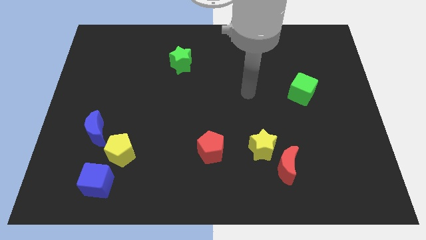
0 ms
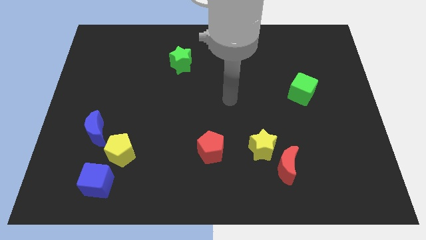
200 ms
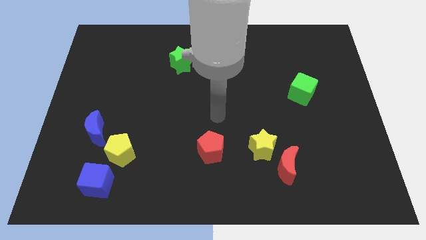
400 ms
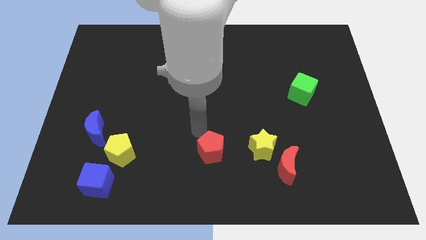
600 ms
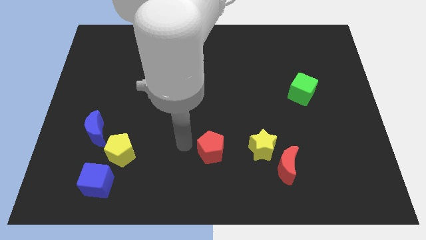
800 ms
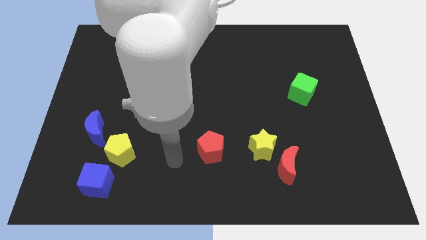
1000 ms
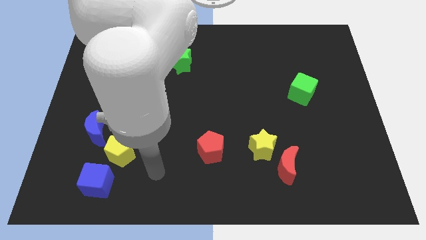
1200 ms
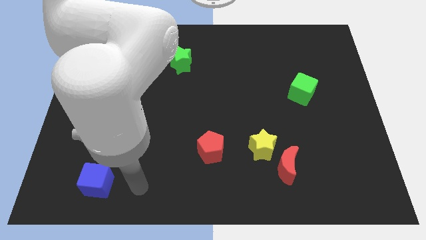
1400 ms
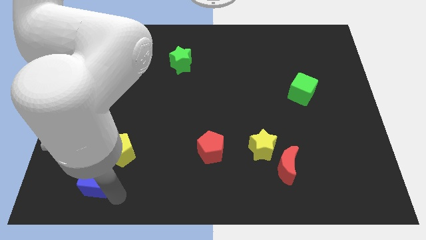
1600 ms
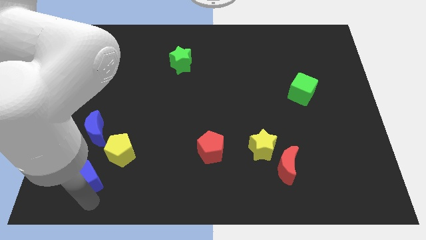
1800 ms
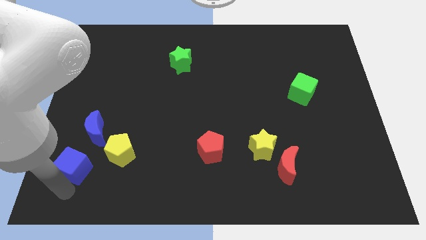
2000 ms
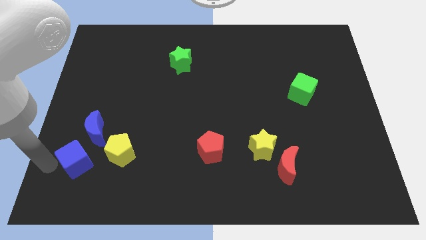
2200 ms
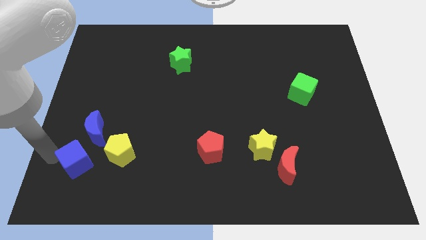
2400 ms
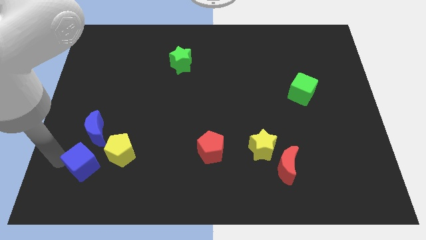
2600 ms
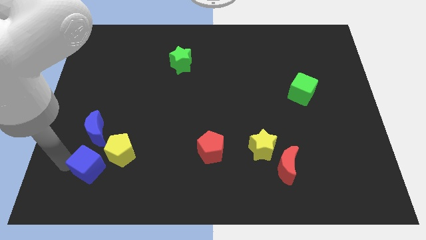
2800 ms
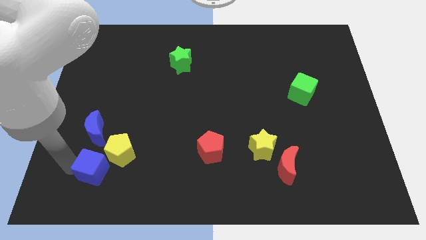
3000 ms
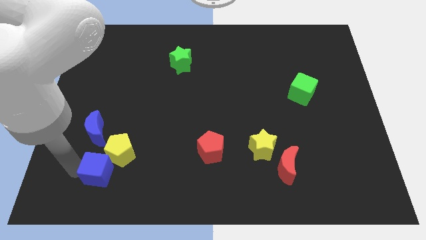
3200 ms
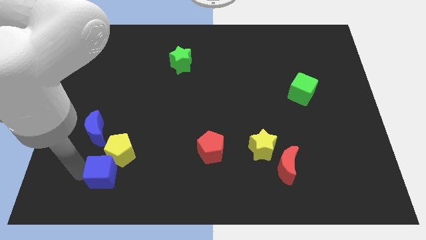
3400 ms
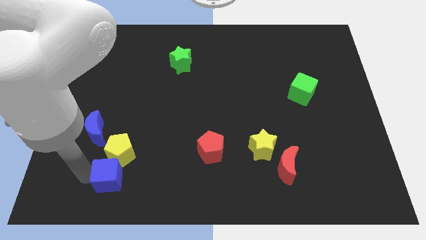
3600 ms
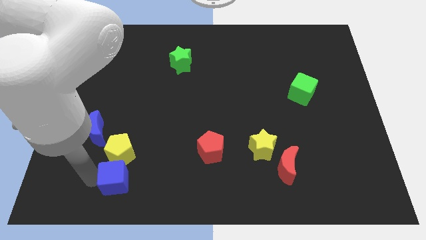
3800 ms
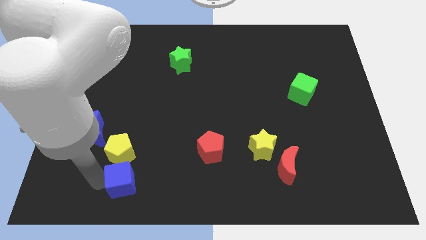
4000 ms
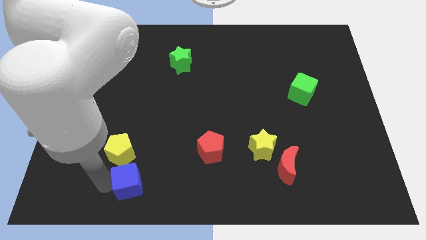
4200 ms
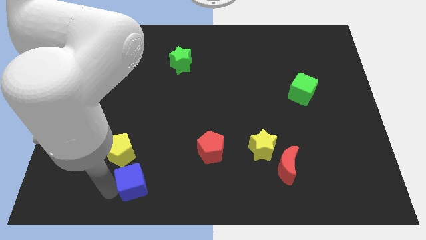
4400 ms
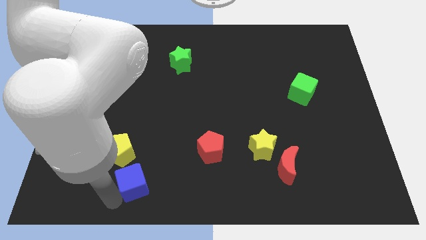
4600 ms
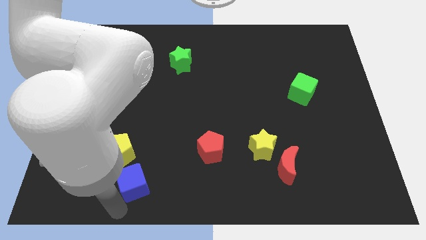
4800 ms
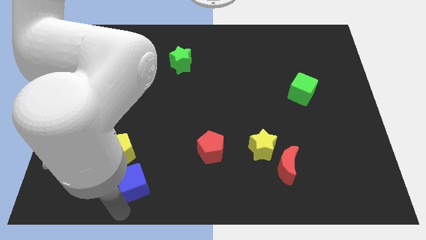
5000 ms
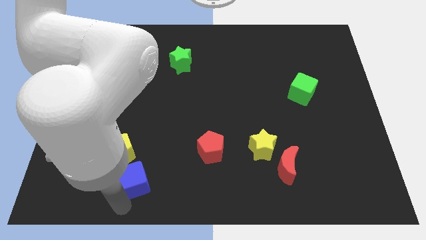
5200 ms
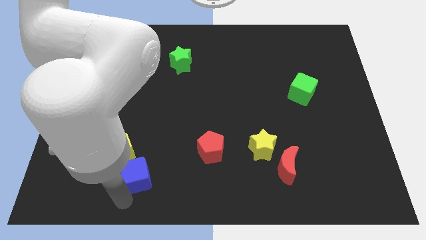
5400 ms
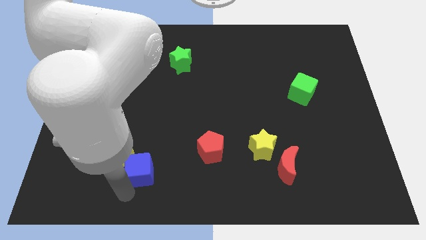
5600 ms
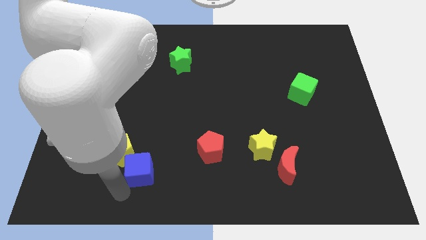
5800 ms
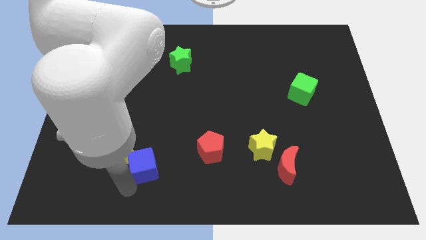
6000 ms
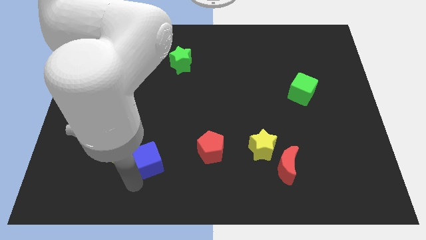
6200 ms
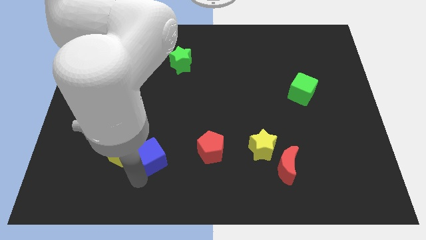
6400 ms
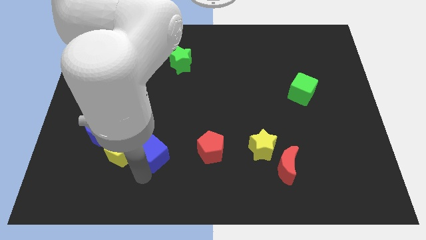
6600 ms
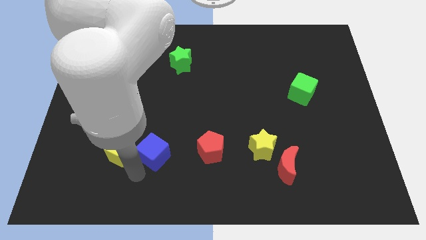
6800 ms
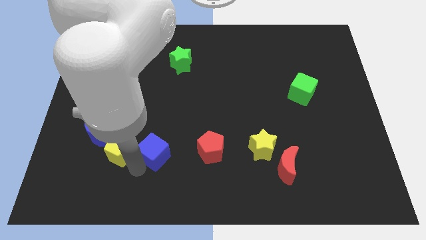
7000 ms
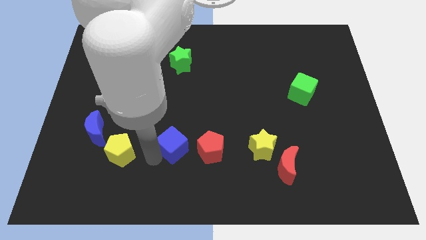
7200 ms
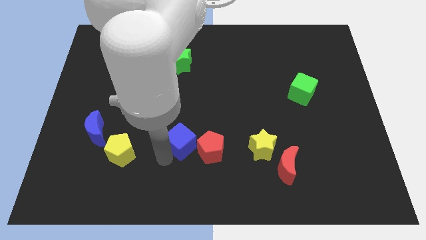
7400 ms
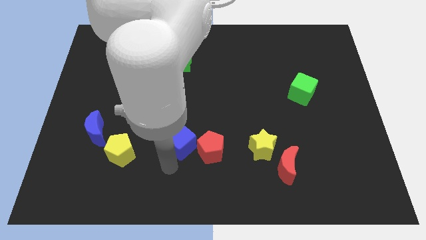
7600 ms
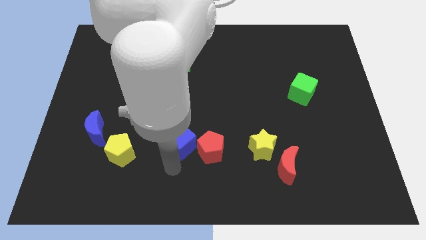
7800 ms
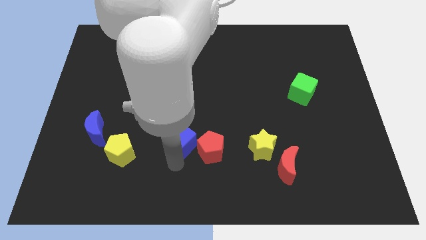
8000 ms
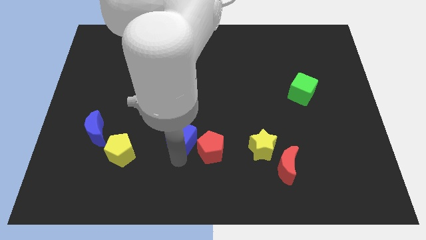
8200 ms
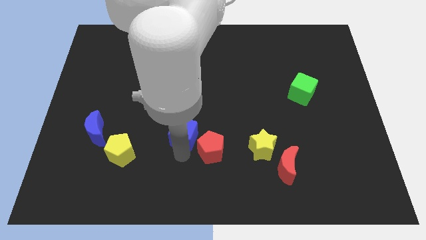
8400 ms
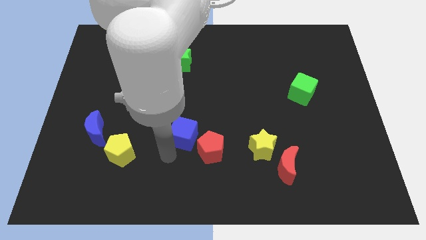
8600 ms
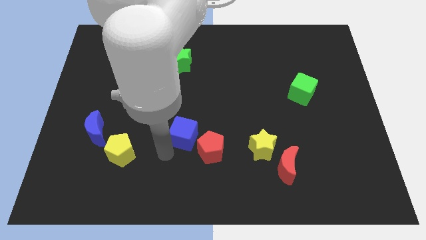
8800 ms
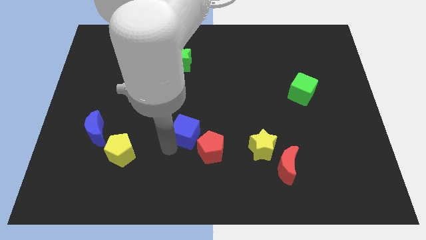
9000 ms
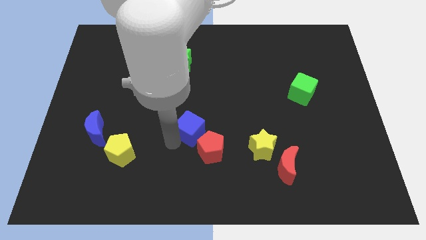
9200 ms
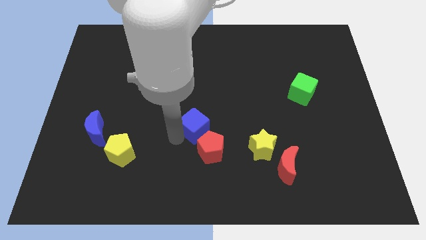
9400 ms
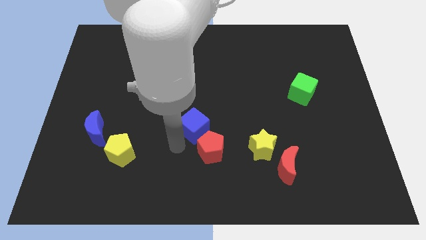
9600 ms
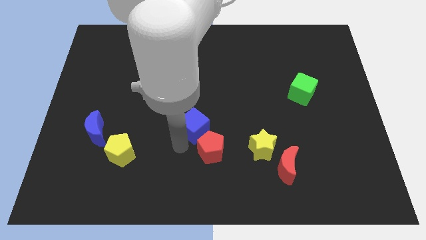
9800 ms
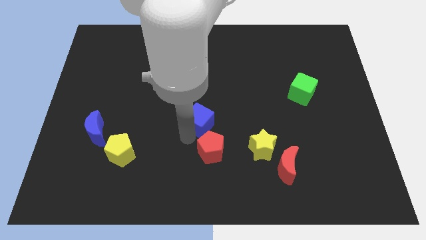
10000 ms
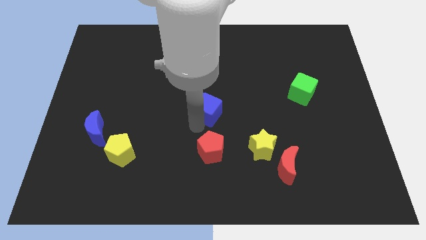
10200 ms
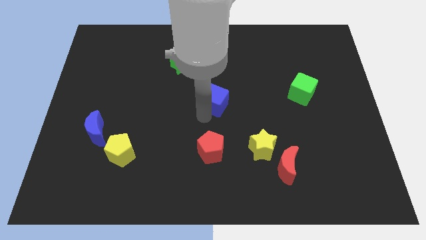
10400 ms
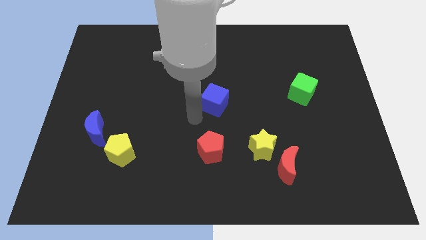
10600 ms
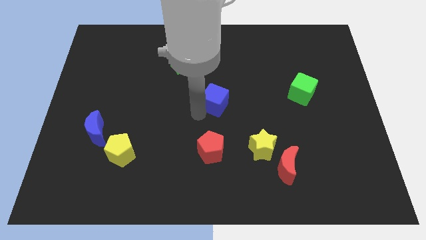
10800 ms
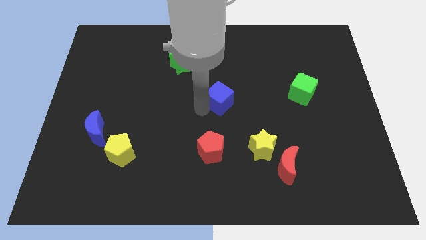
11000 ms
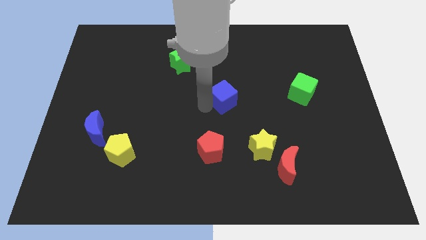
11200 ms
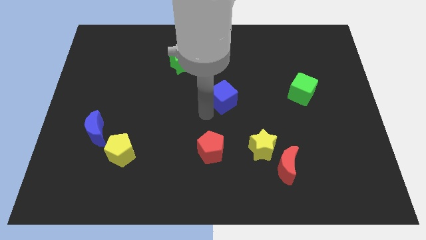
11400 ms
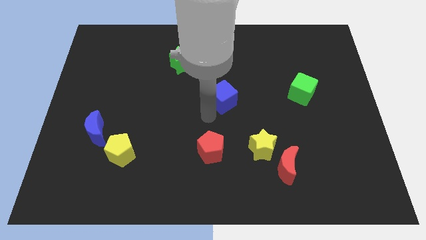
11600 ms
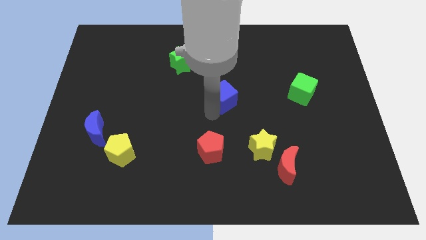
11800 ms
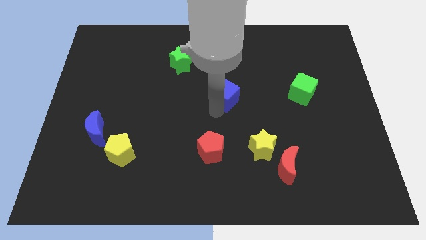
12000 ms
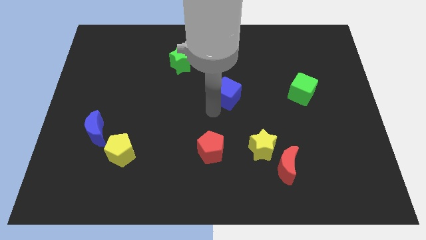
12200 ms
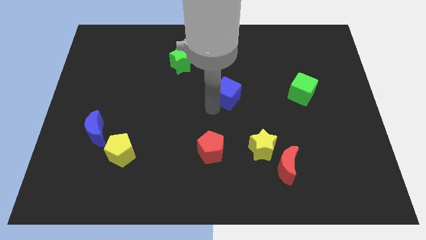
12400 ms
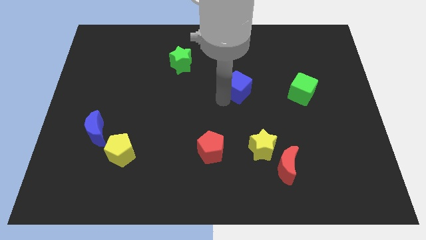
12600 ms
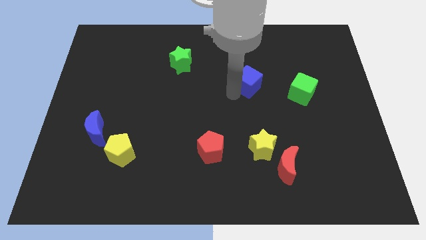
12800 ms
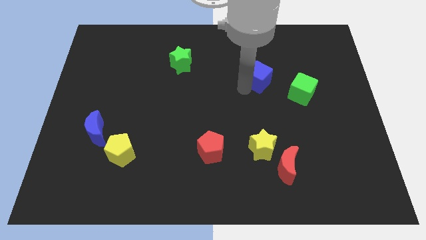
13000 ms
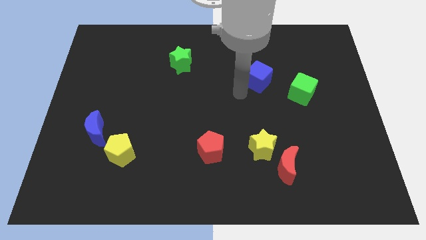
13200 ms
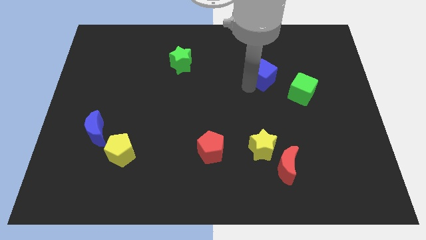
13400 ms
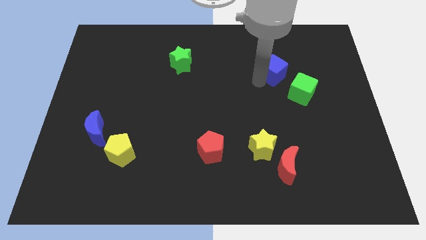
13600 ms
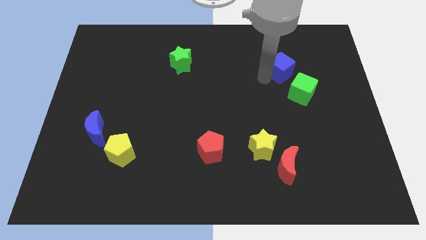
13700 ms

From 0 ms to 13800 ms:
move the blue cube above the green cube

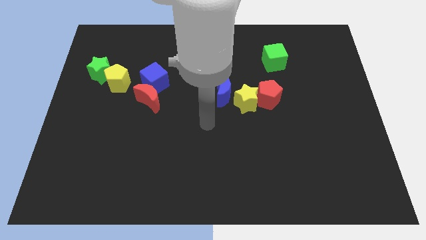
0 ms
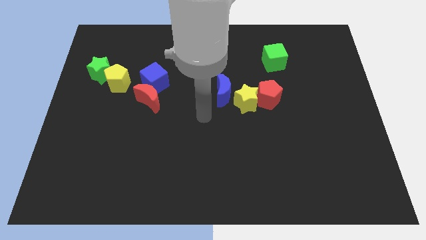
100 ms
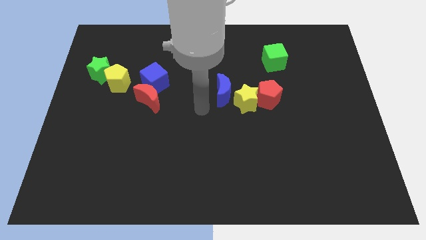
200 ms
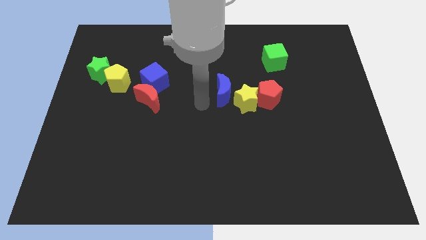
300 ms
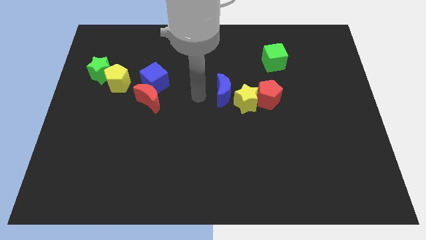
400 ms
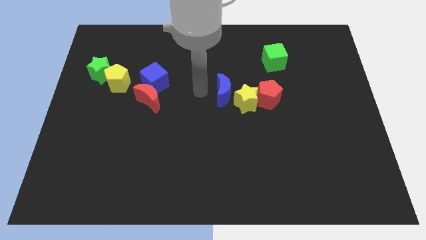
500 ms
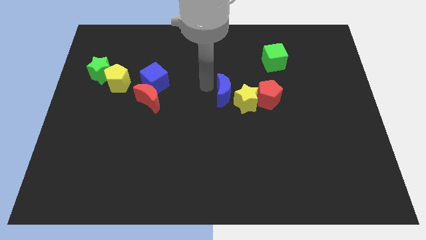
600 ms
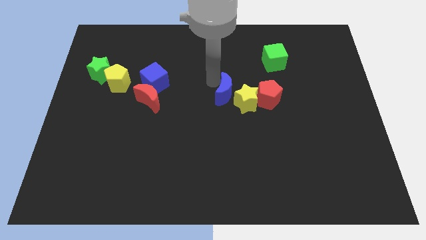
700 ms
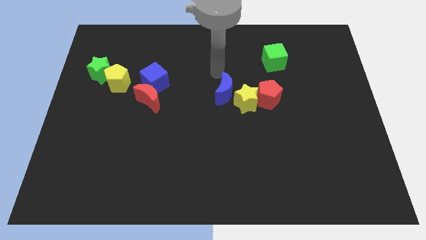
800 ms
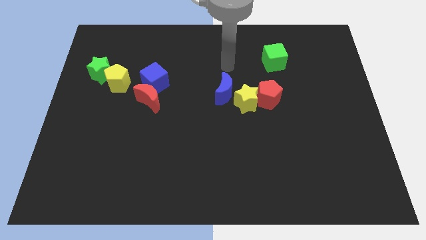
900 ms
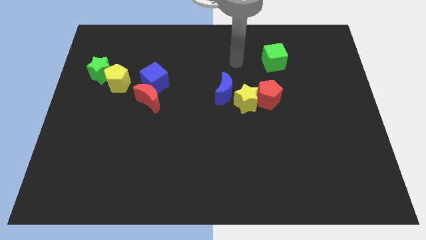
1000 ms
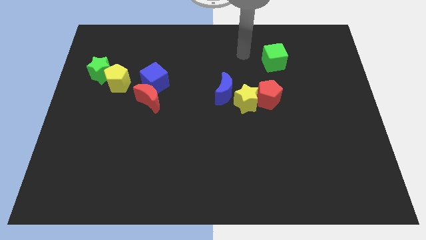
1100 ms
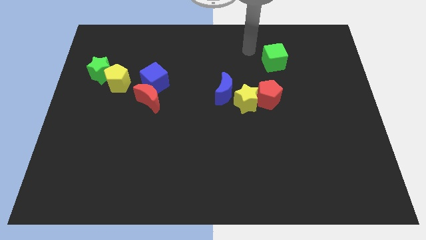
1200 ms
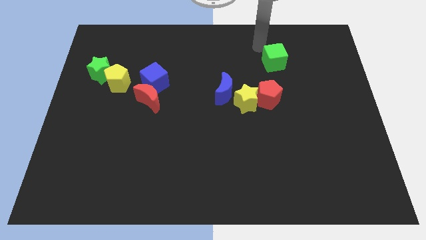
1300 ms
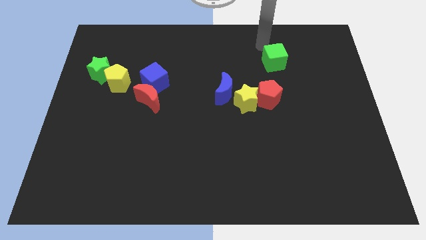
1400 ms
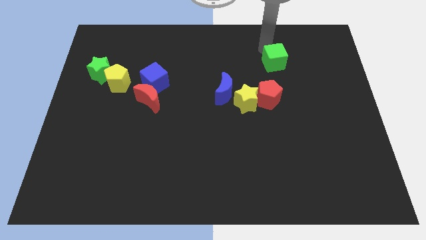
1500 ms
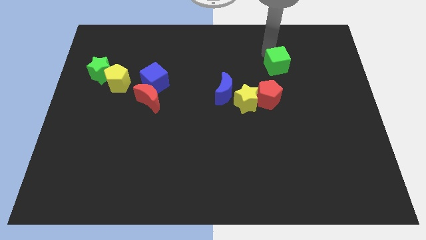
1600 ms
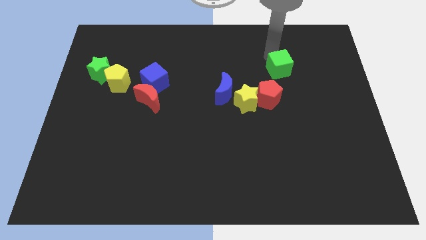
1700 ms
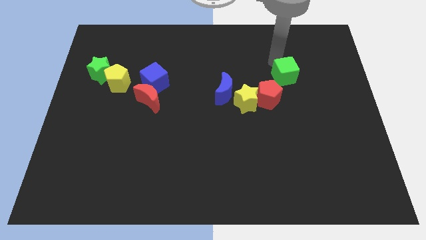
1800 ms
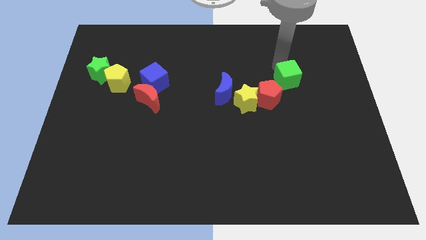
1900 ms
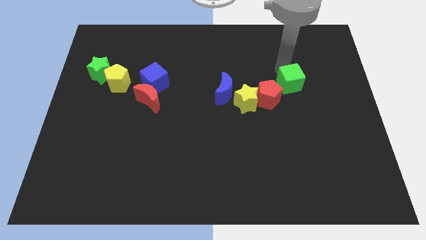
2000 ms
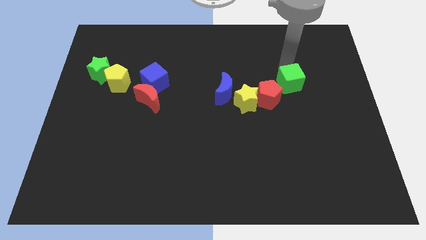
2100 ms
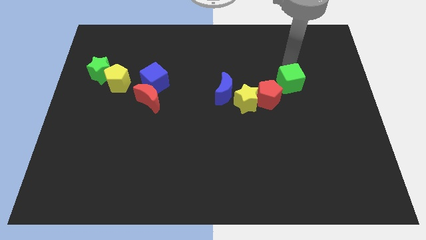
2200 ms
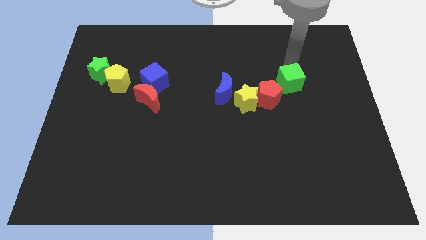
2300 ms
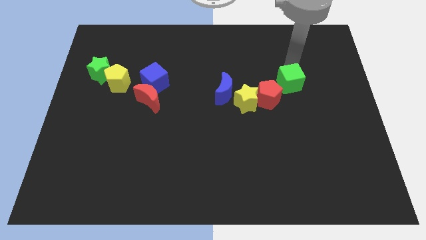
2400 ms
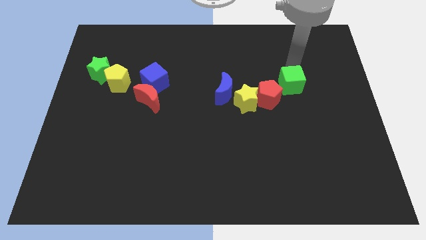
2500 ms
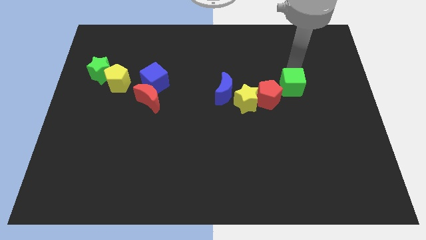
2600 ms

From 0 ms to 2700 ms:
slide the green cube to the right side of the yellow star
